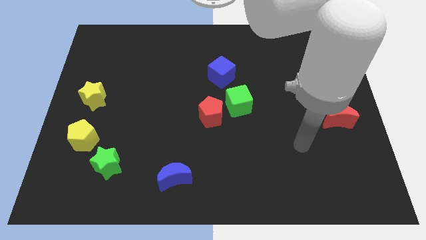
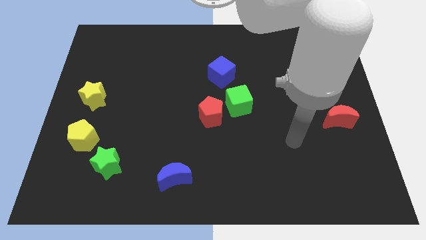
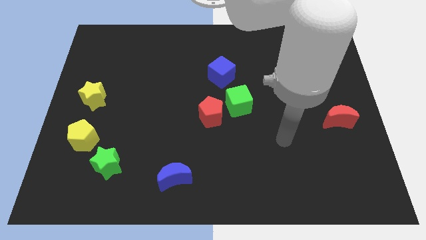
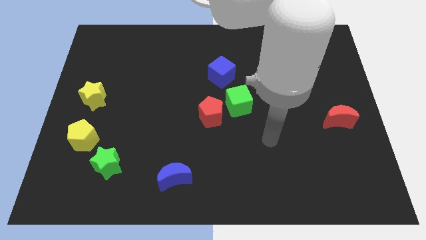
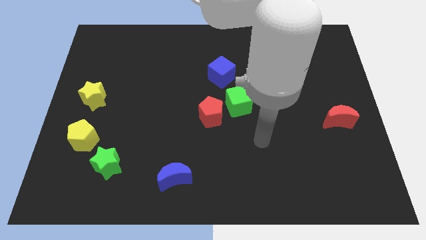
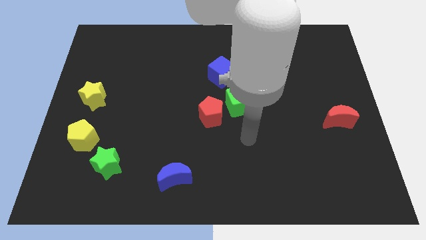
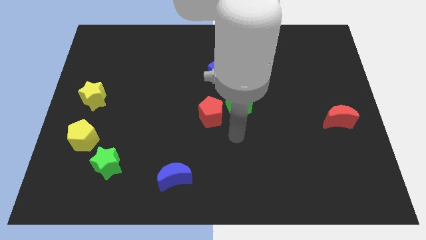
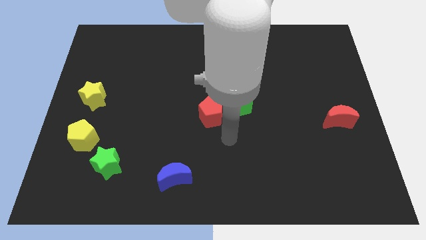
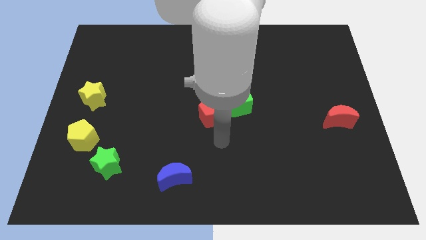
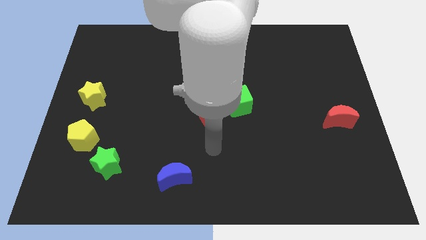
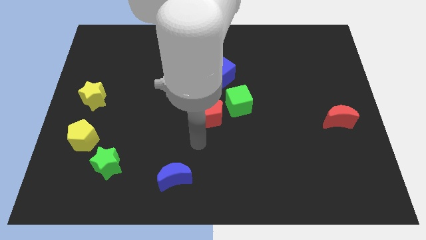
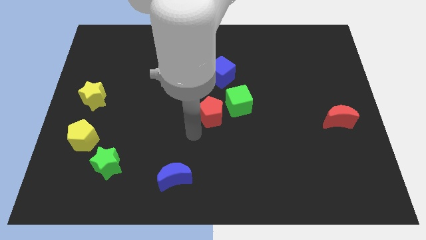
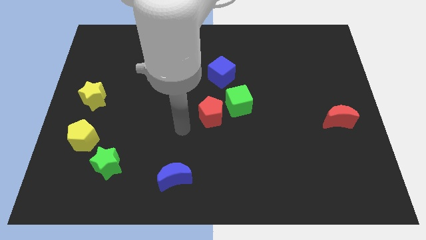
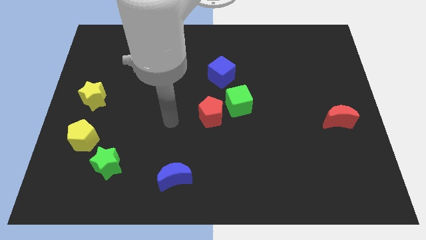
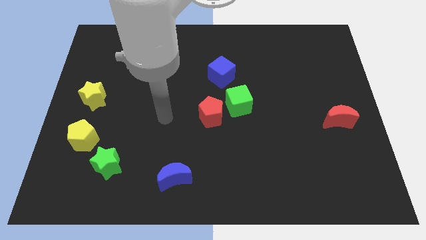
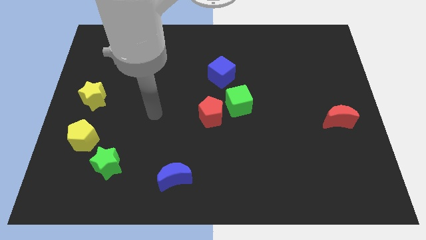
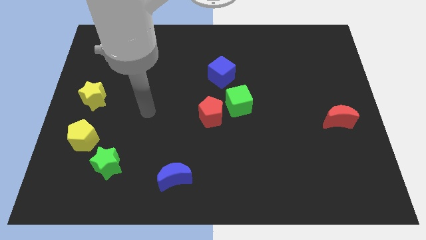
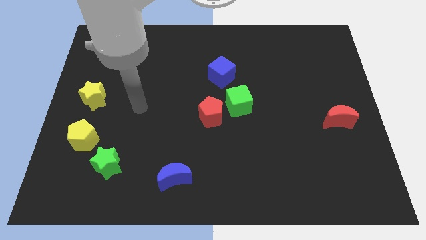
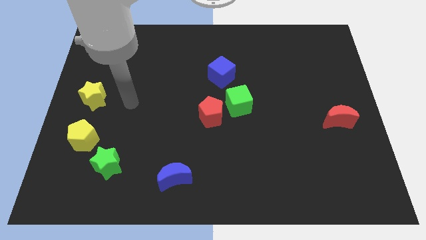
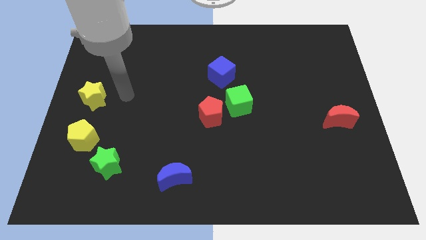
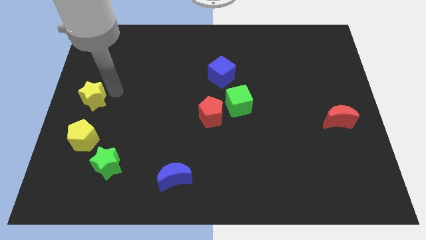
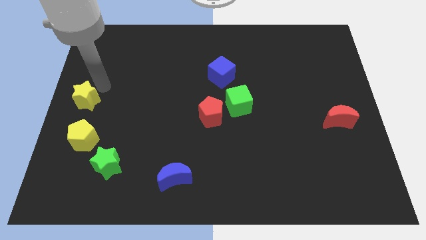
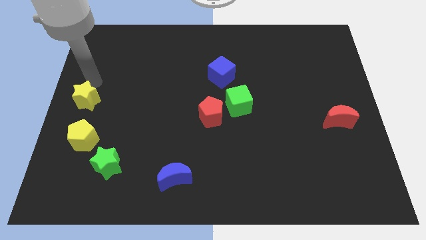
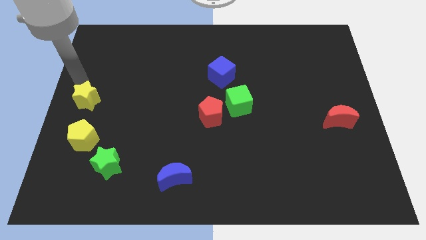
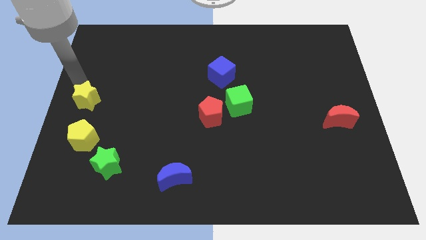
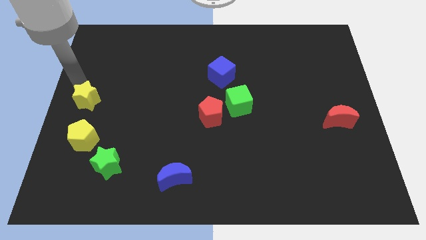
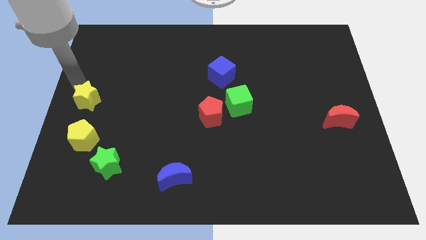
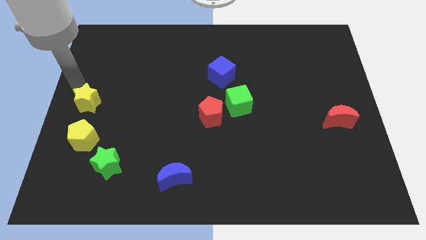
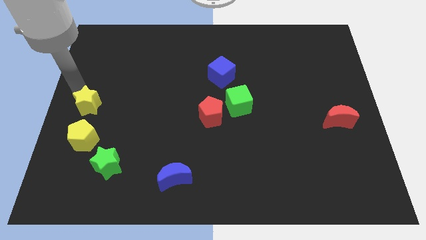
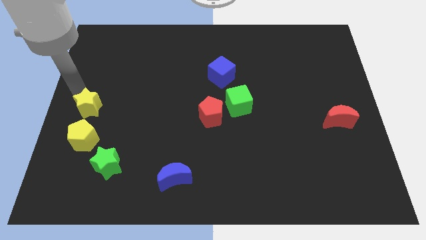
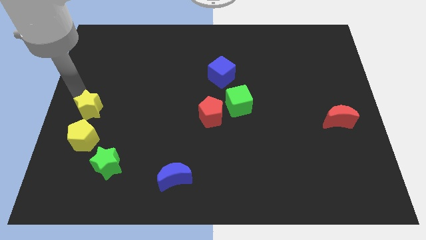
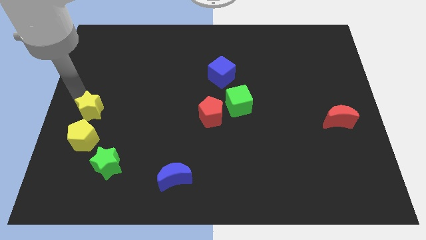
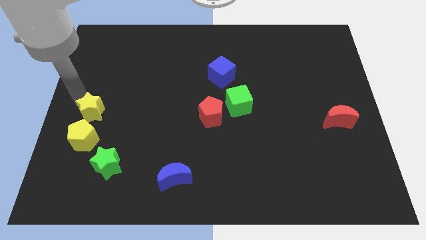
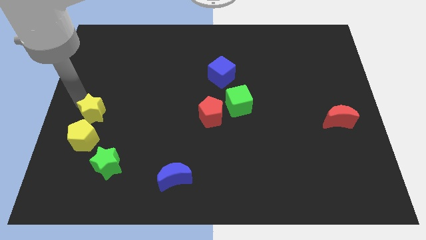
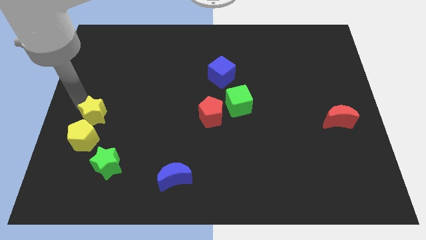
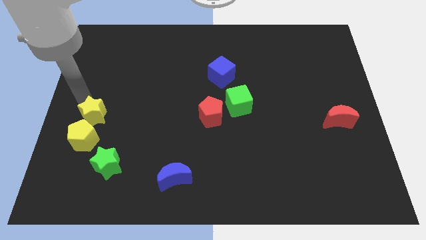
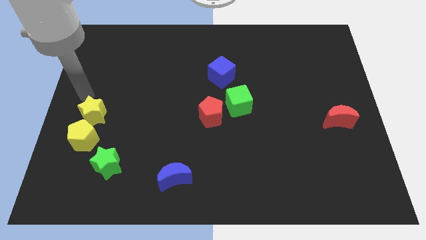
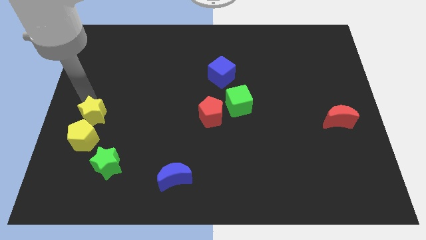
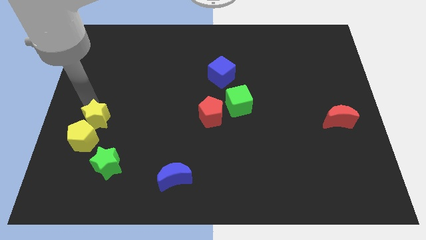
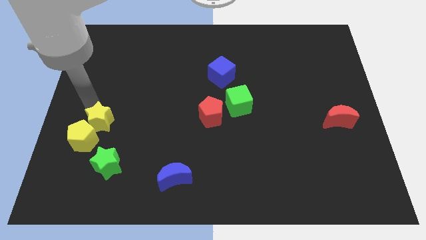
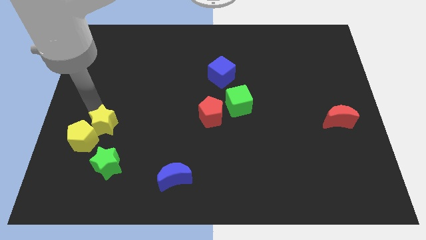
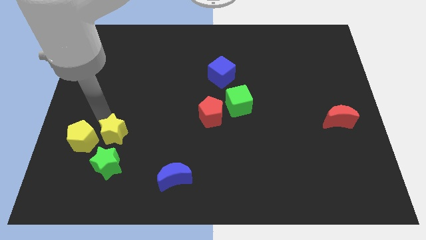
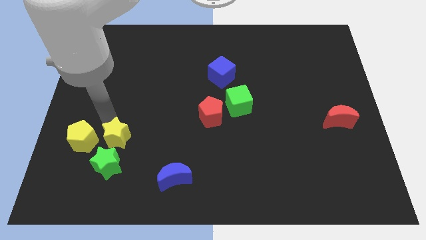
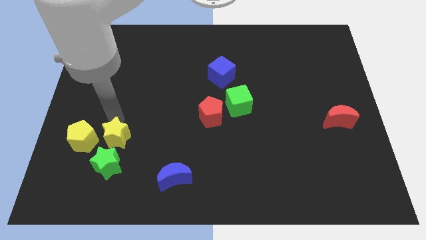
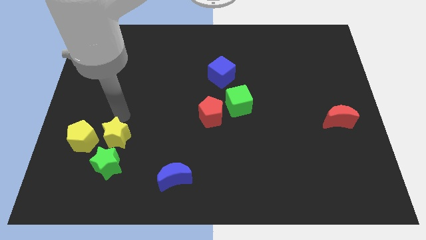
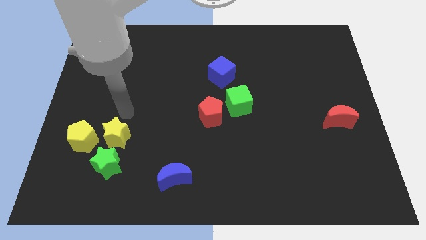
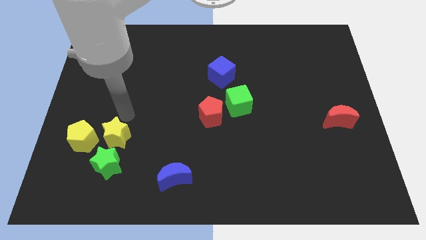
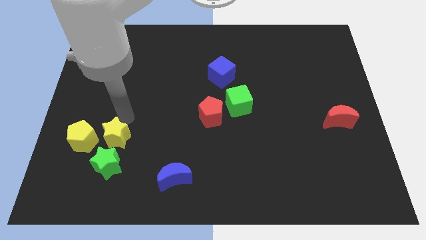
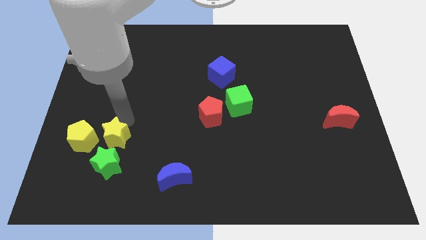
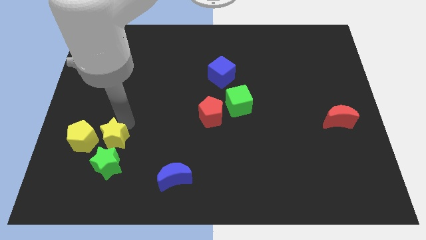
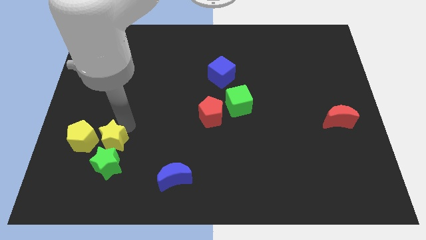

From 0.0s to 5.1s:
push the yellow star close to the green star

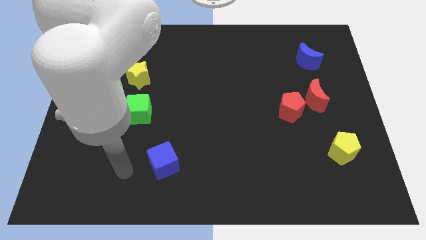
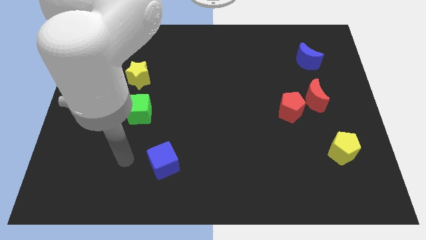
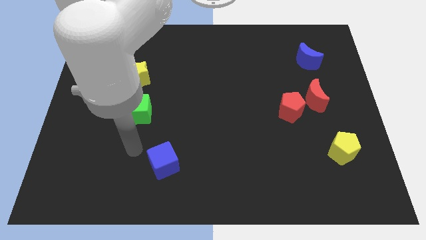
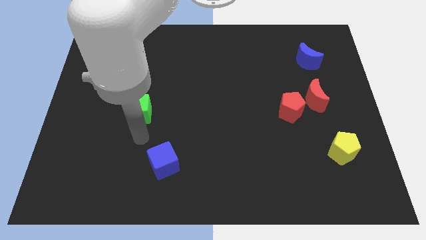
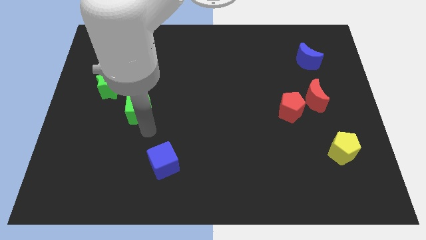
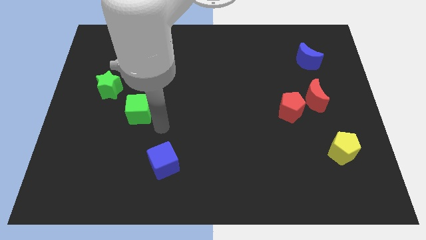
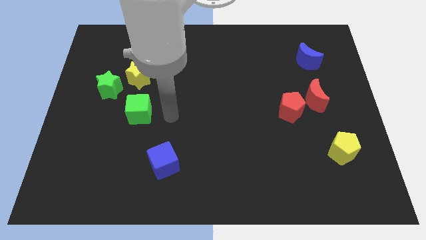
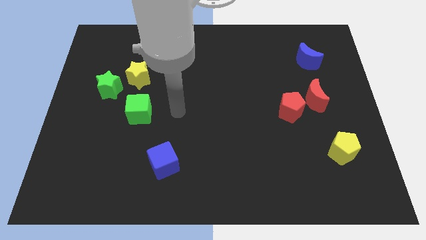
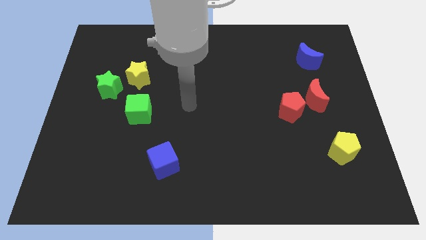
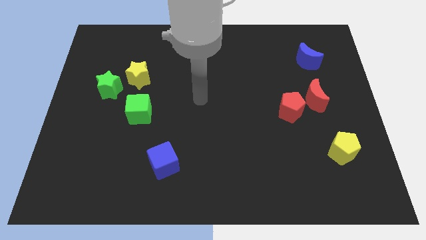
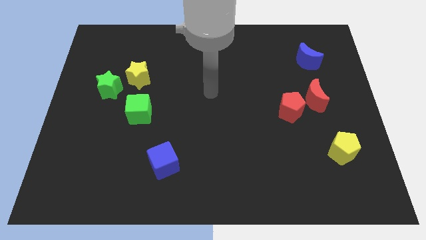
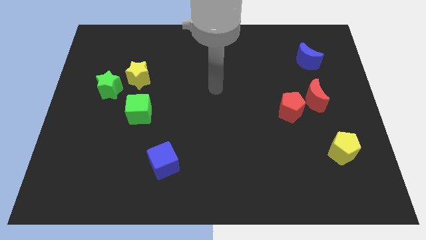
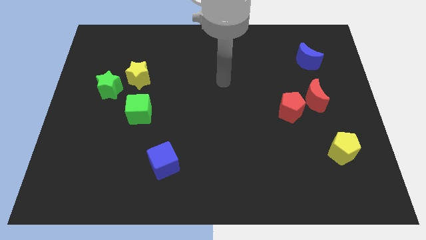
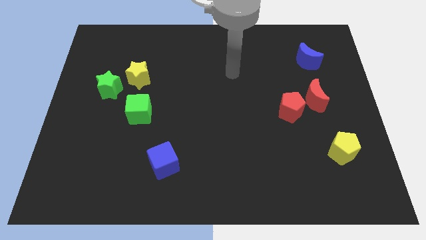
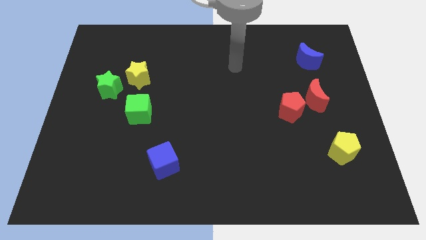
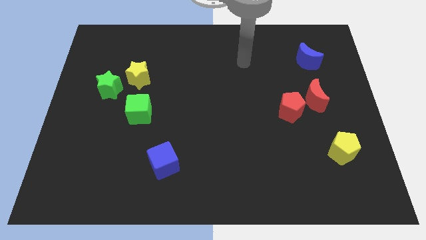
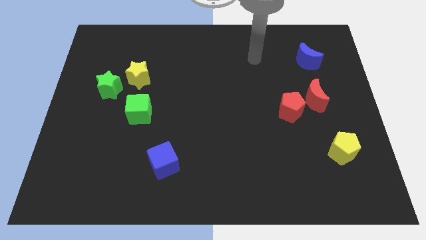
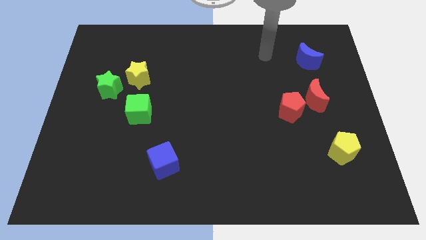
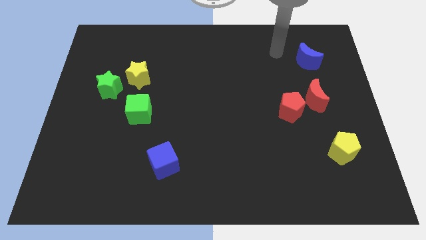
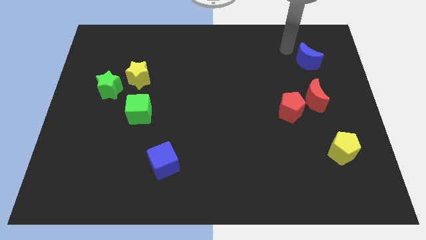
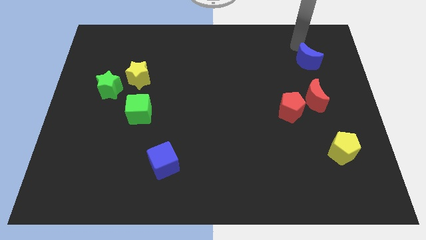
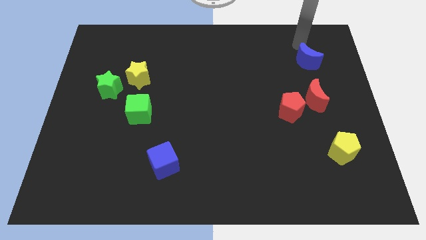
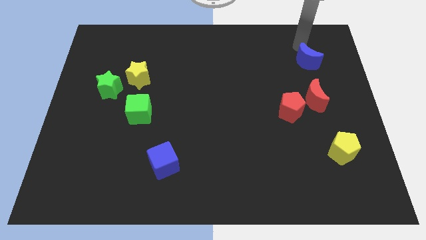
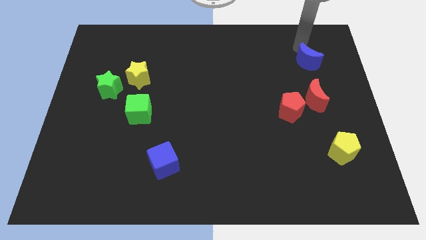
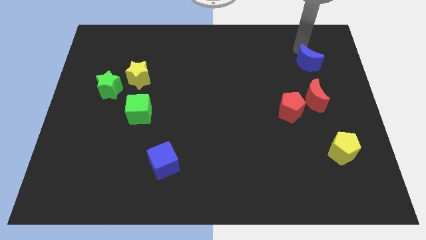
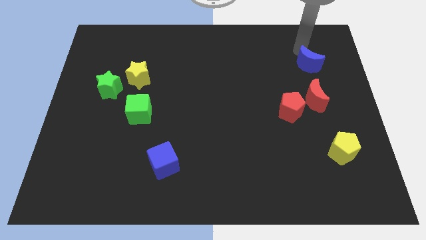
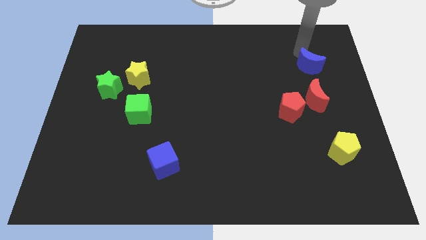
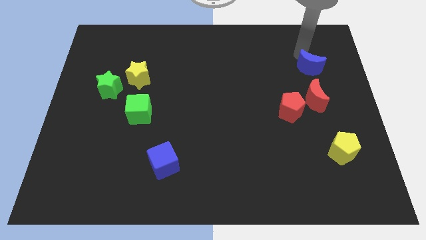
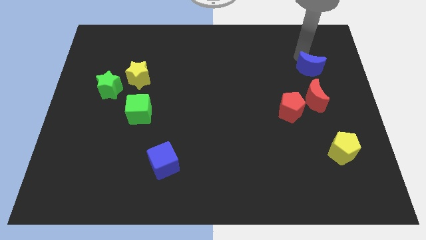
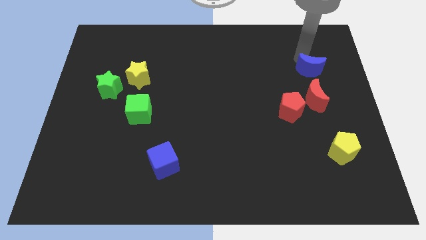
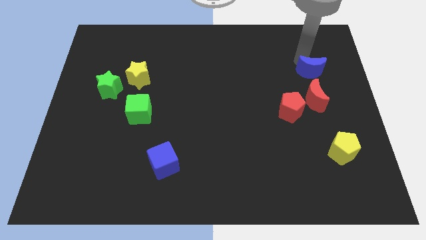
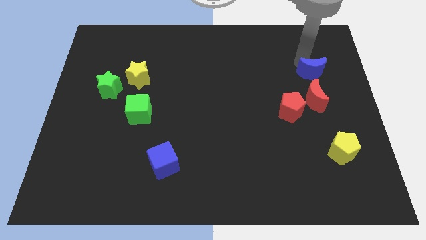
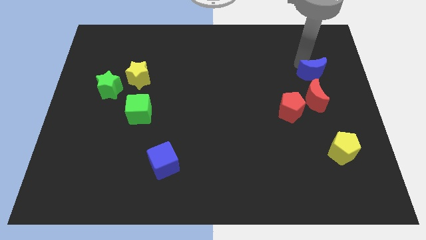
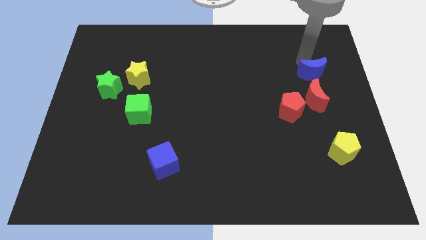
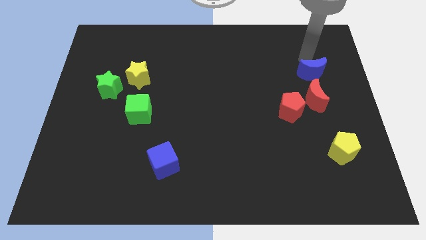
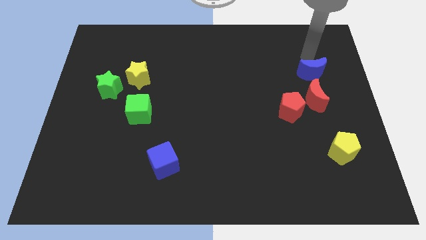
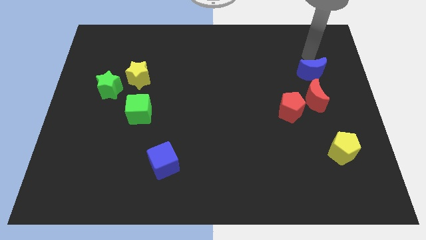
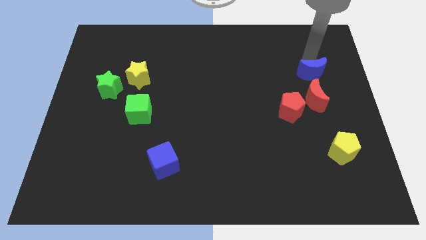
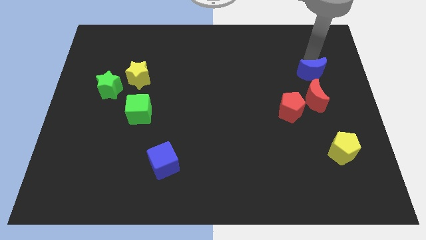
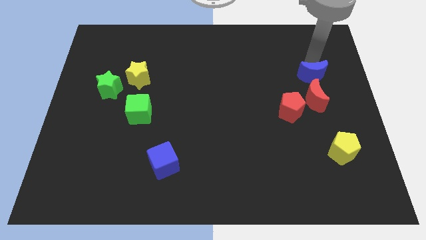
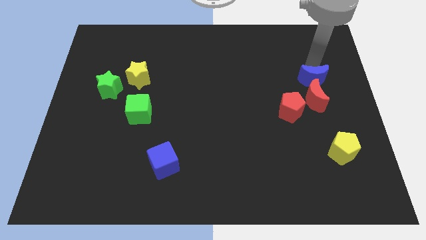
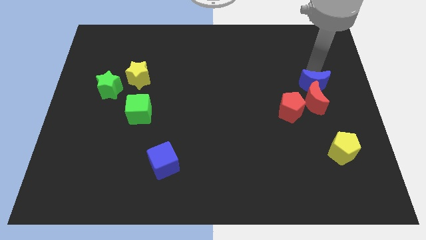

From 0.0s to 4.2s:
move the blue moon towards the red moon
